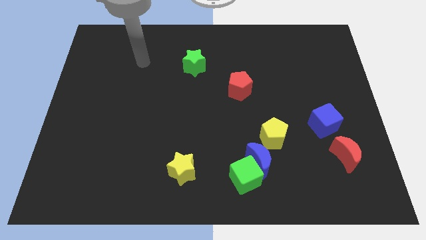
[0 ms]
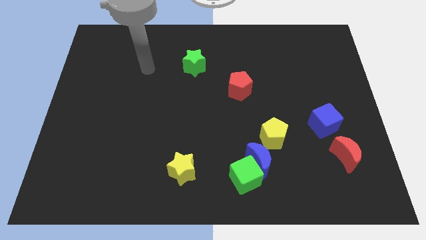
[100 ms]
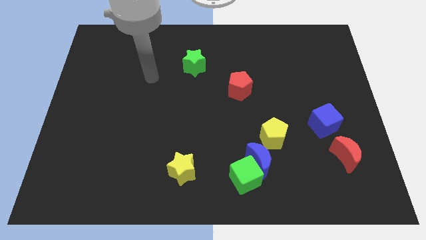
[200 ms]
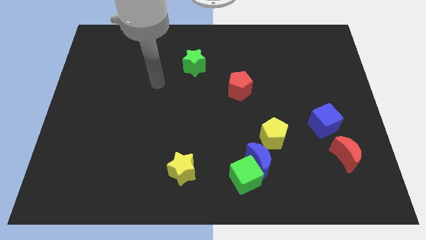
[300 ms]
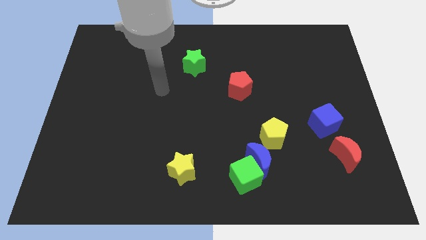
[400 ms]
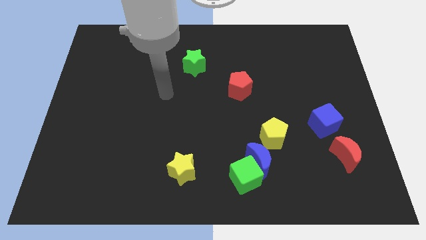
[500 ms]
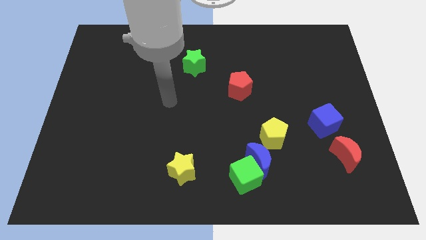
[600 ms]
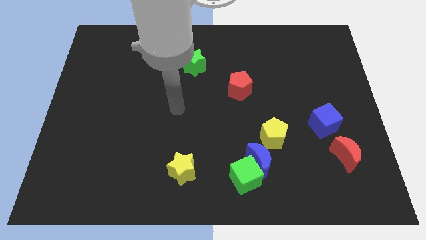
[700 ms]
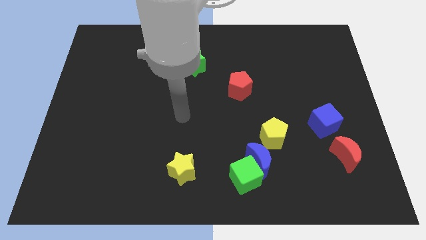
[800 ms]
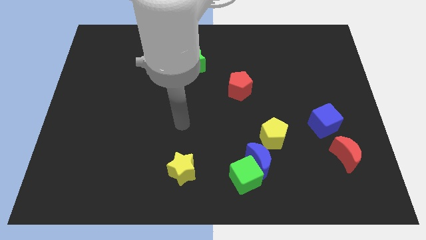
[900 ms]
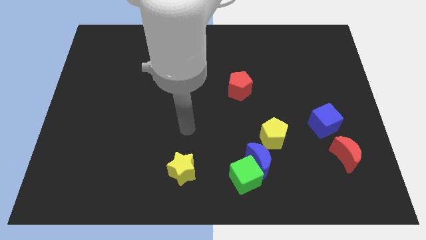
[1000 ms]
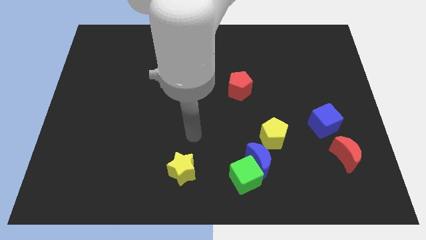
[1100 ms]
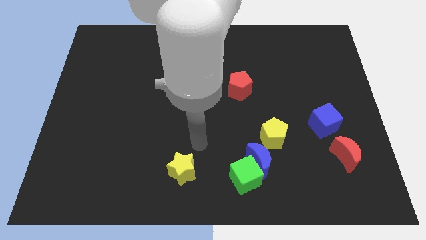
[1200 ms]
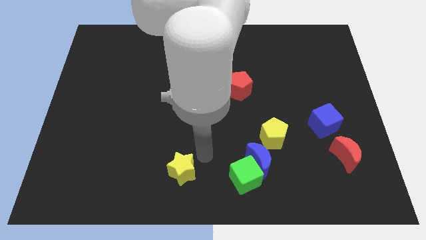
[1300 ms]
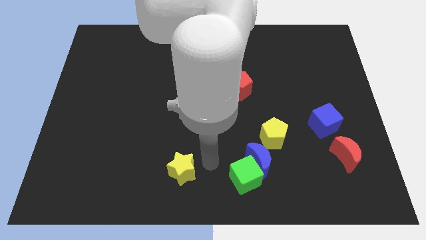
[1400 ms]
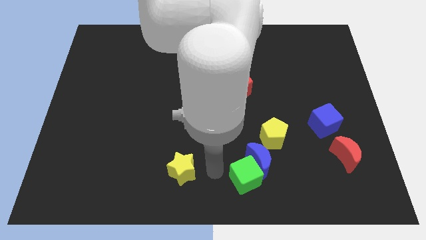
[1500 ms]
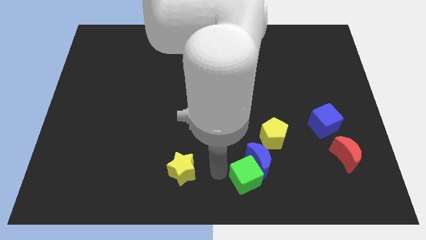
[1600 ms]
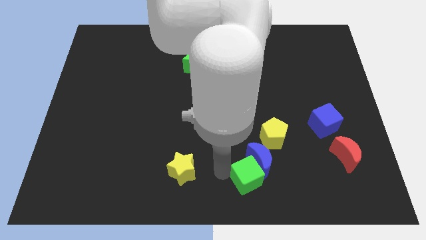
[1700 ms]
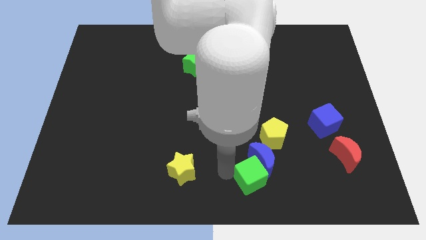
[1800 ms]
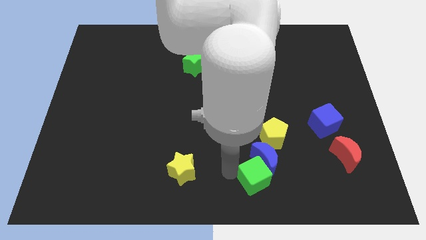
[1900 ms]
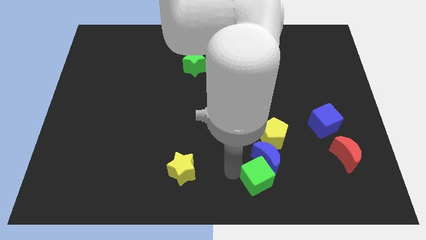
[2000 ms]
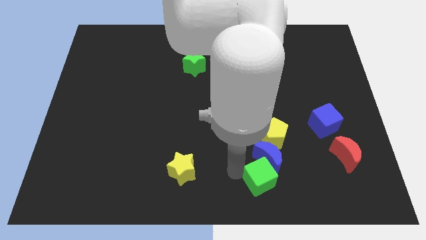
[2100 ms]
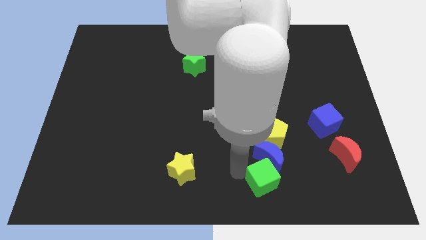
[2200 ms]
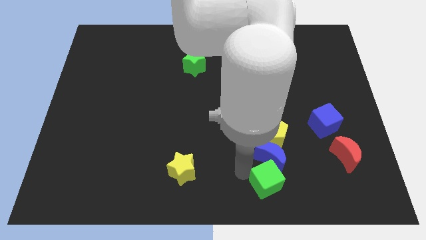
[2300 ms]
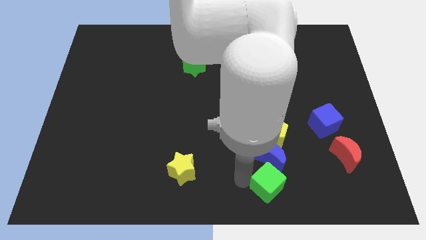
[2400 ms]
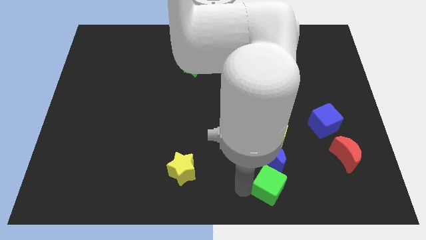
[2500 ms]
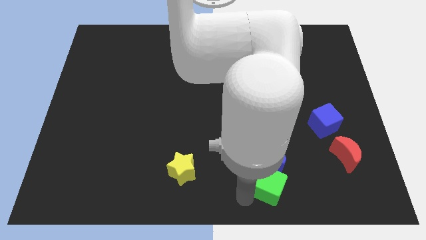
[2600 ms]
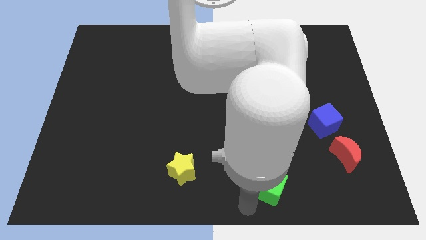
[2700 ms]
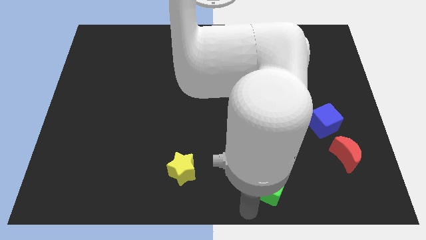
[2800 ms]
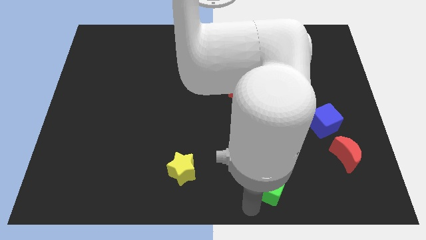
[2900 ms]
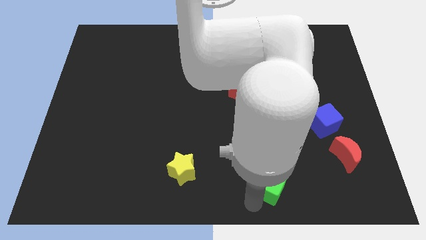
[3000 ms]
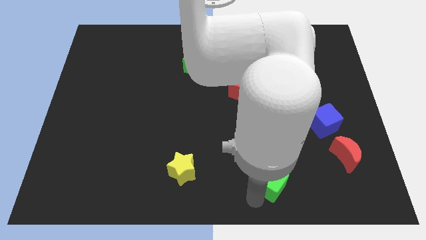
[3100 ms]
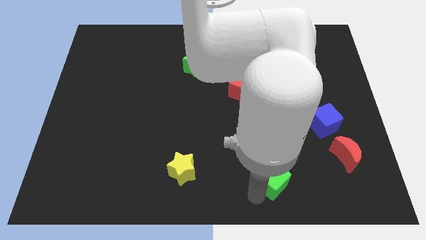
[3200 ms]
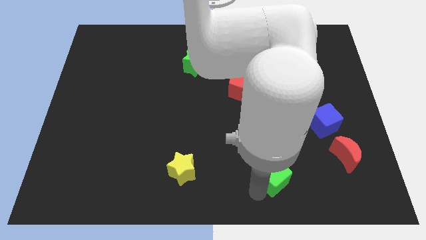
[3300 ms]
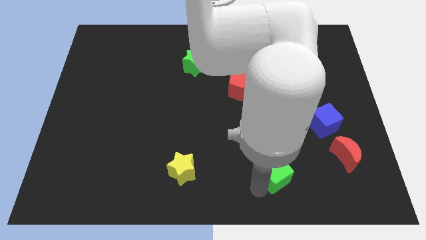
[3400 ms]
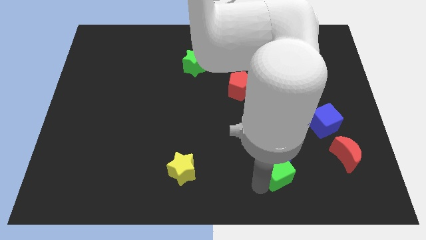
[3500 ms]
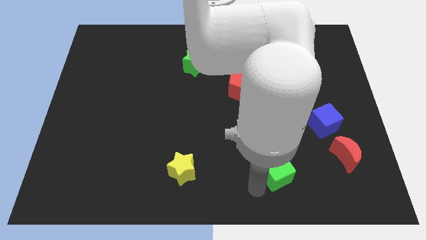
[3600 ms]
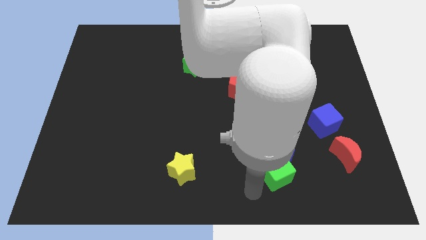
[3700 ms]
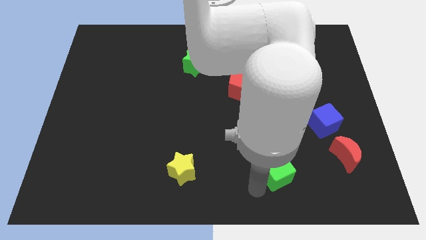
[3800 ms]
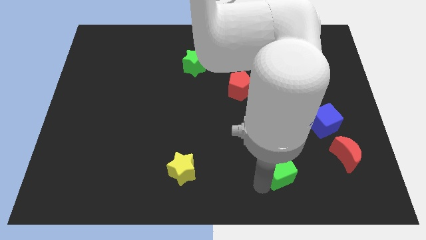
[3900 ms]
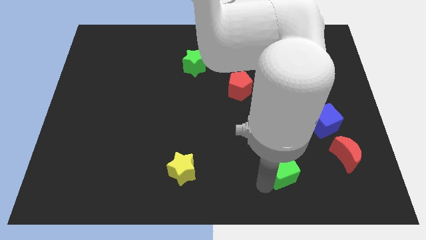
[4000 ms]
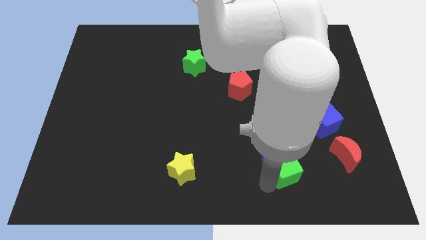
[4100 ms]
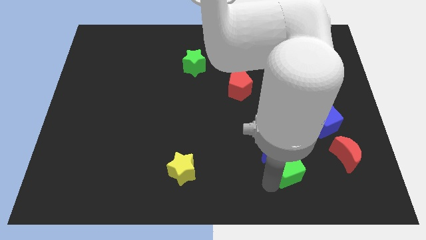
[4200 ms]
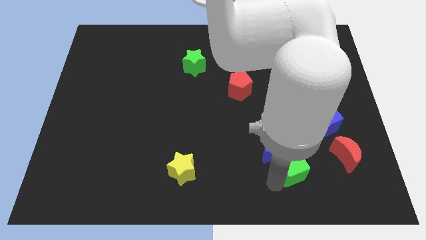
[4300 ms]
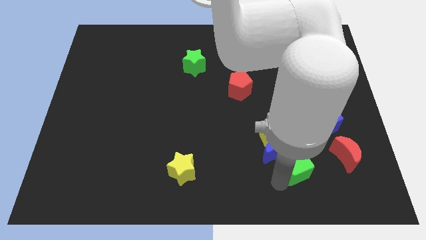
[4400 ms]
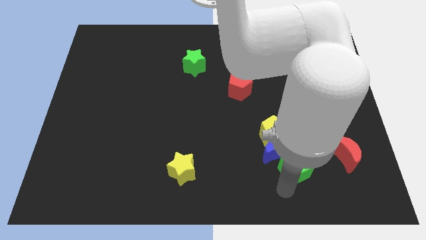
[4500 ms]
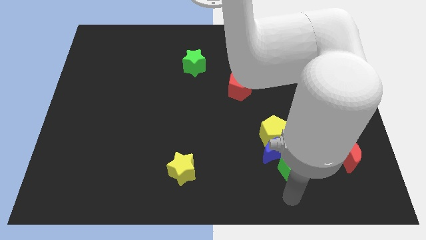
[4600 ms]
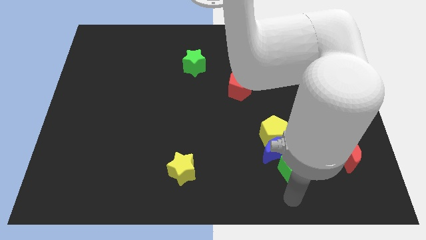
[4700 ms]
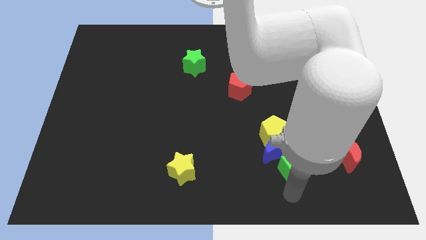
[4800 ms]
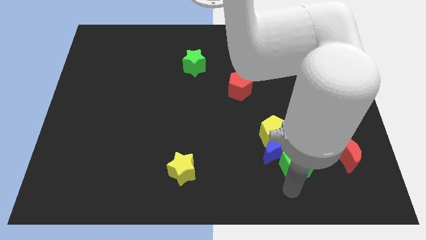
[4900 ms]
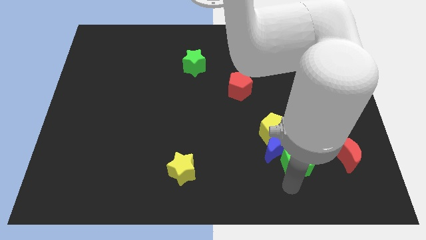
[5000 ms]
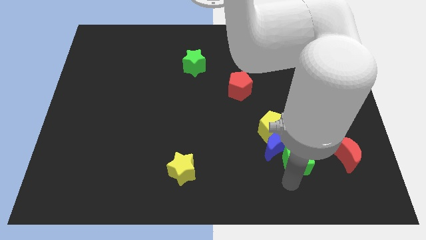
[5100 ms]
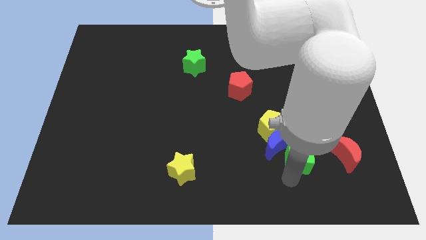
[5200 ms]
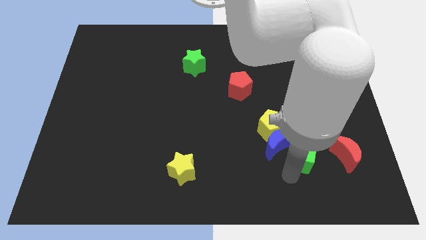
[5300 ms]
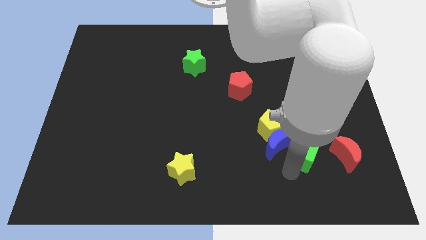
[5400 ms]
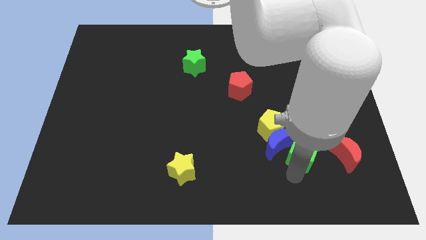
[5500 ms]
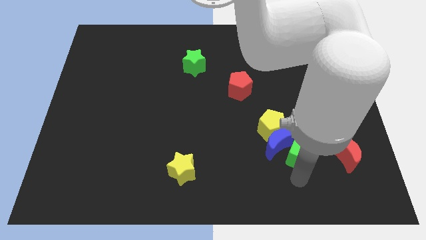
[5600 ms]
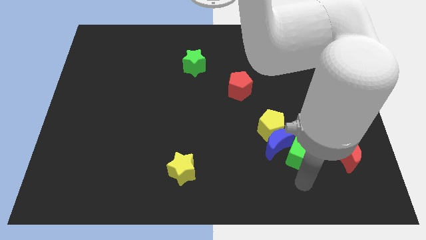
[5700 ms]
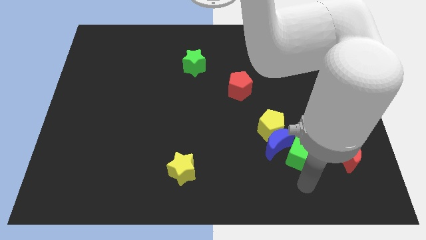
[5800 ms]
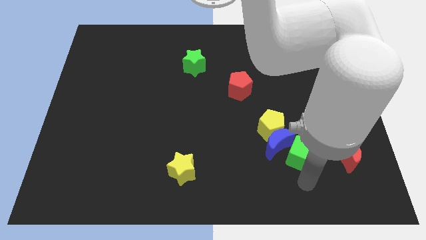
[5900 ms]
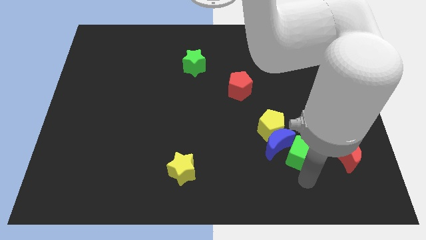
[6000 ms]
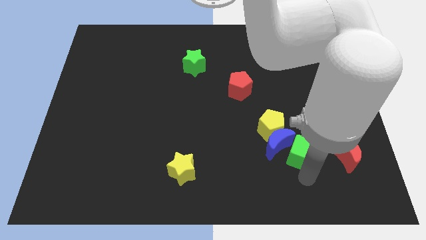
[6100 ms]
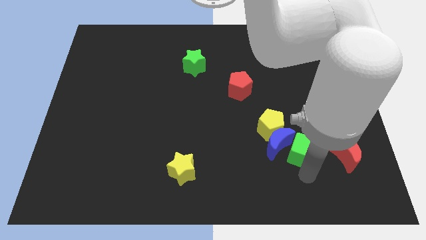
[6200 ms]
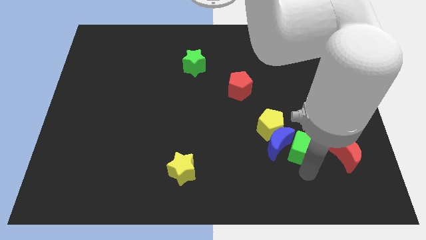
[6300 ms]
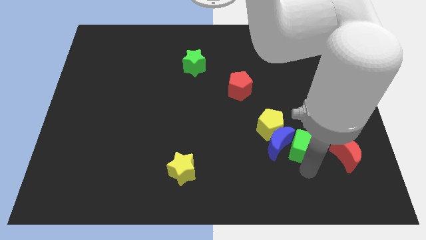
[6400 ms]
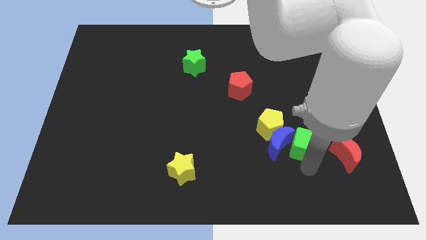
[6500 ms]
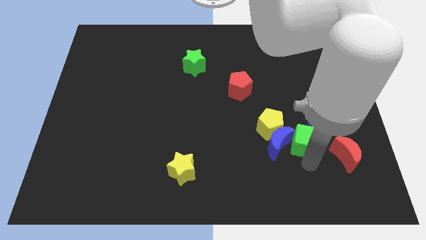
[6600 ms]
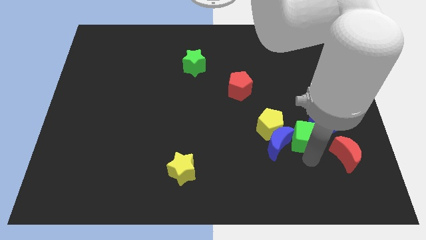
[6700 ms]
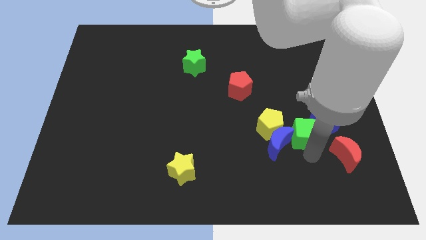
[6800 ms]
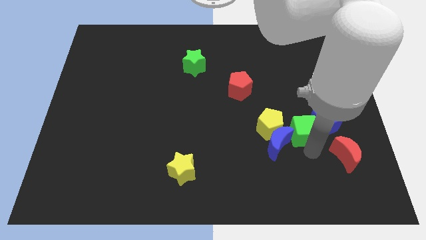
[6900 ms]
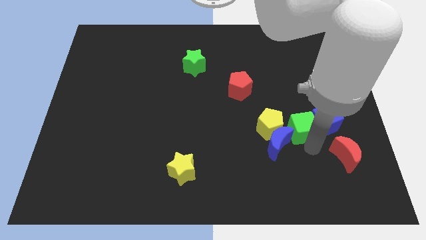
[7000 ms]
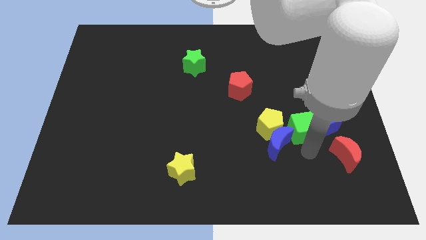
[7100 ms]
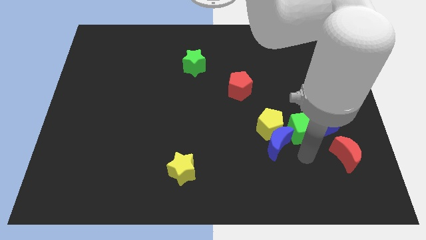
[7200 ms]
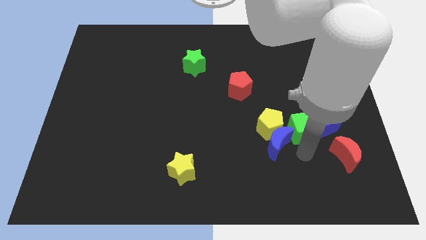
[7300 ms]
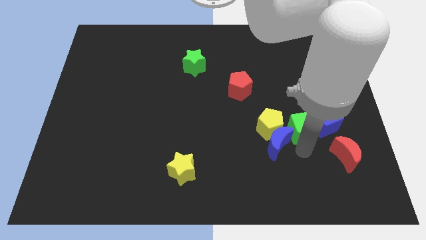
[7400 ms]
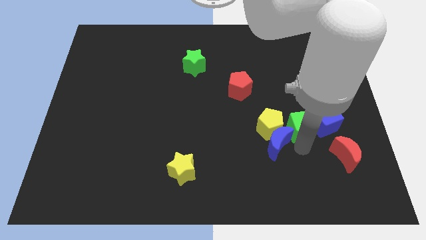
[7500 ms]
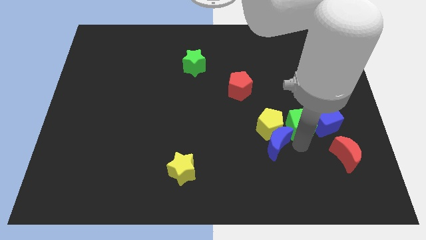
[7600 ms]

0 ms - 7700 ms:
put the green cube to the top left side of the blue cube
